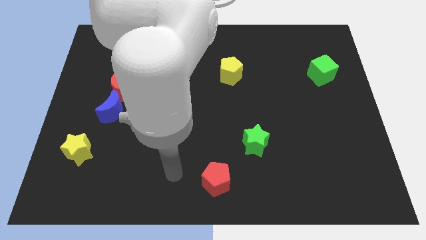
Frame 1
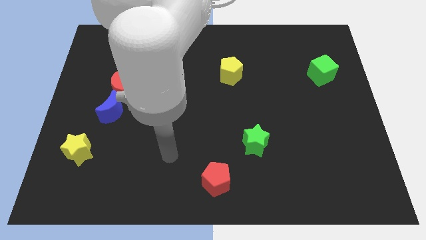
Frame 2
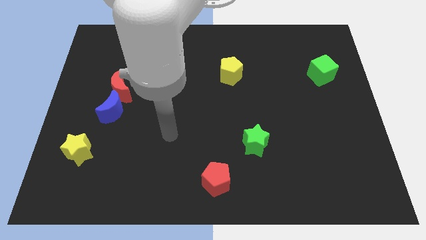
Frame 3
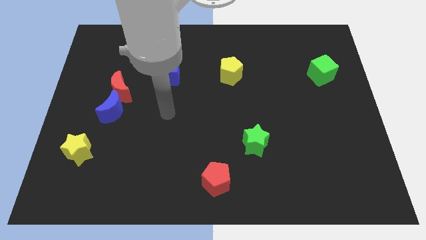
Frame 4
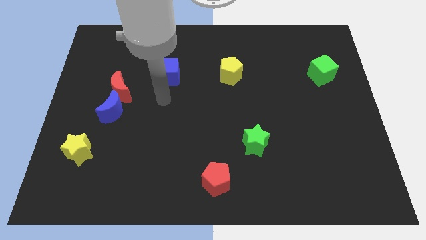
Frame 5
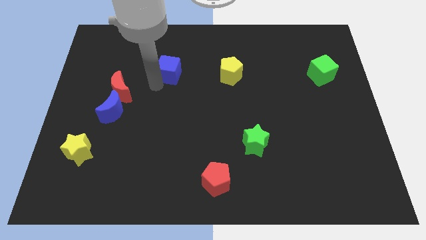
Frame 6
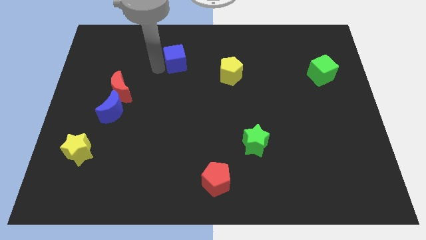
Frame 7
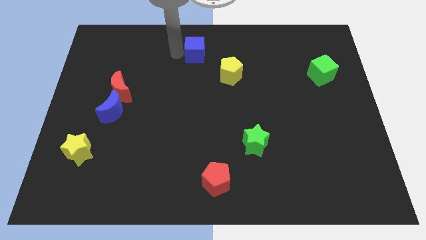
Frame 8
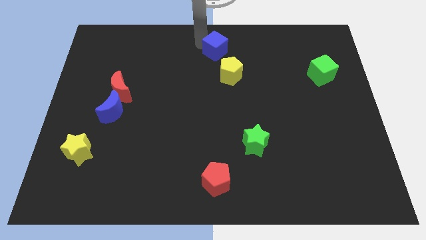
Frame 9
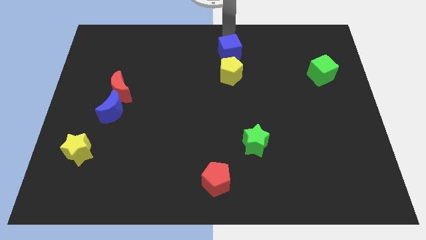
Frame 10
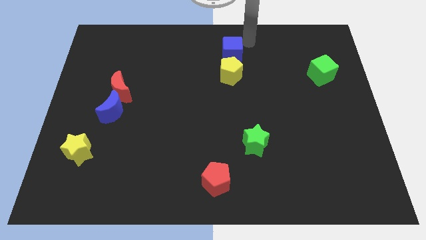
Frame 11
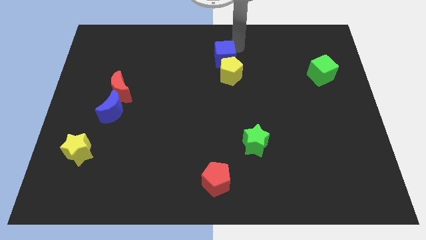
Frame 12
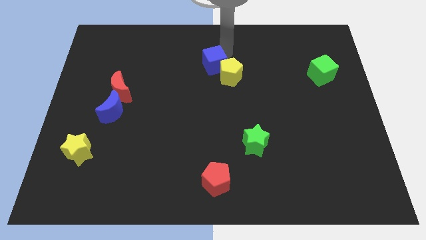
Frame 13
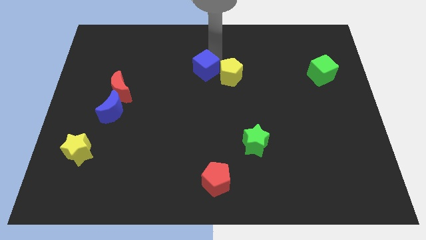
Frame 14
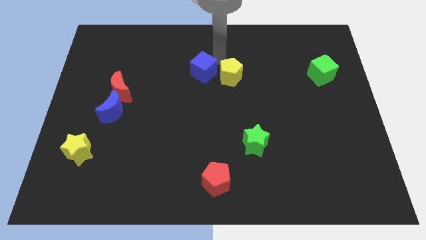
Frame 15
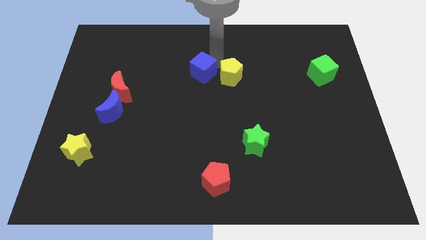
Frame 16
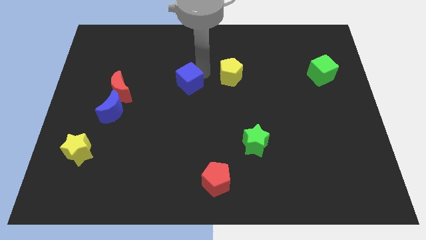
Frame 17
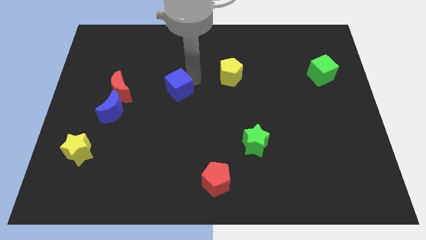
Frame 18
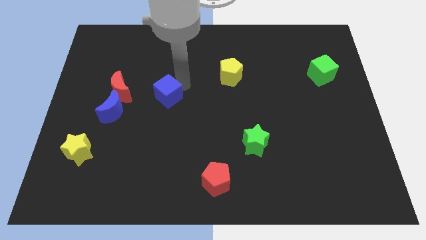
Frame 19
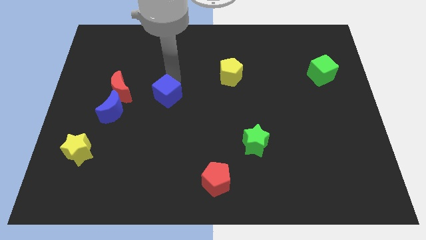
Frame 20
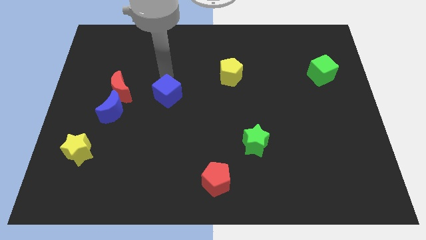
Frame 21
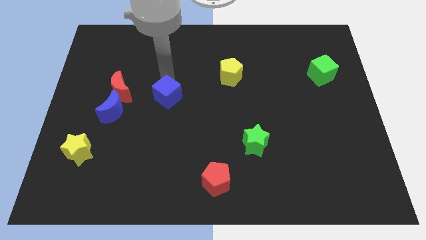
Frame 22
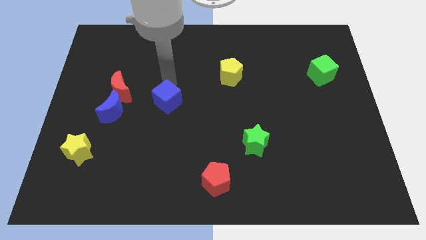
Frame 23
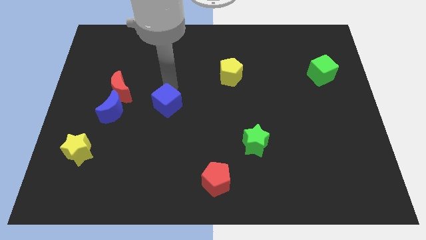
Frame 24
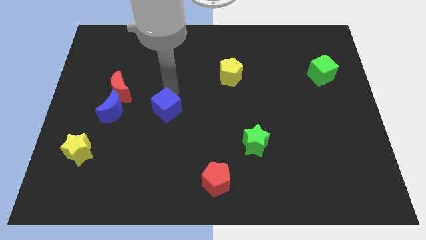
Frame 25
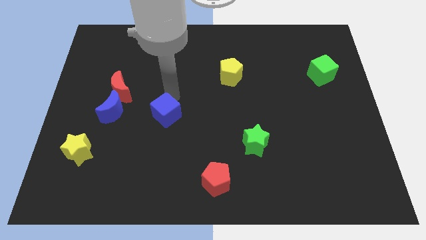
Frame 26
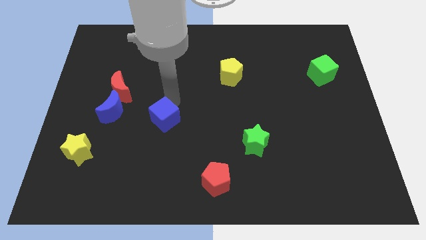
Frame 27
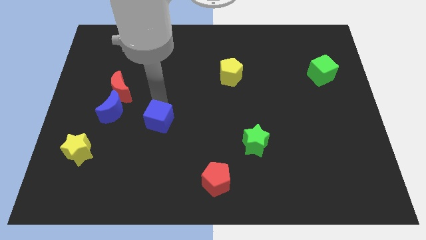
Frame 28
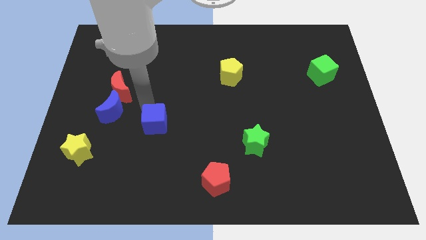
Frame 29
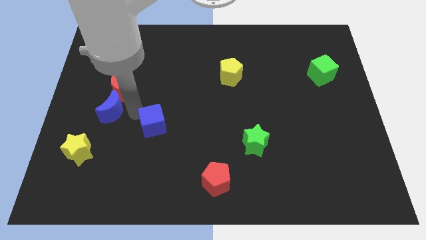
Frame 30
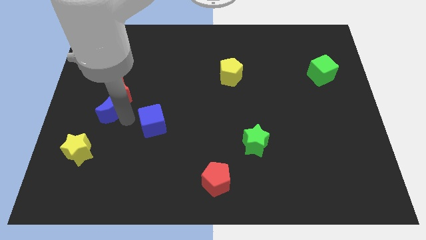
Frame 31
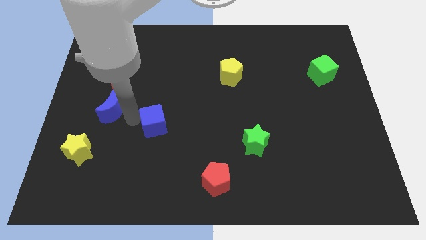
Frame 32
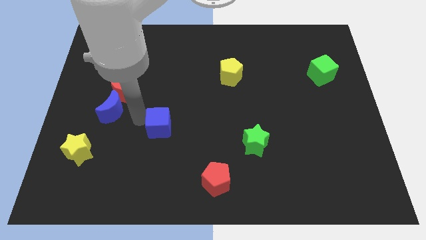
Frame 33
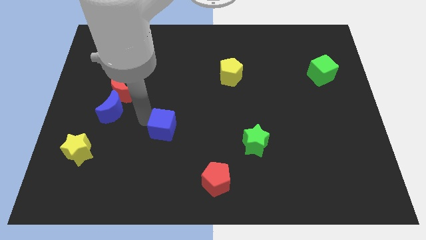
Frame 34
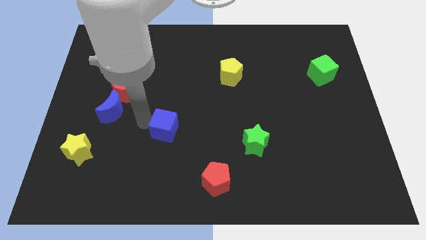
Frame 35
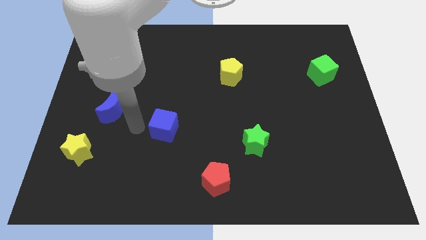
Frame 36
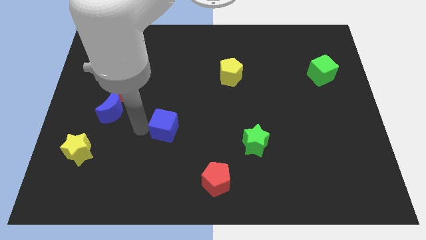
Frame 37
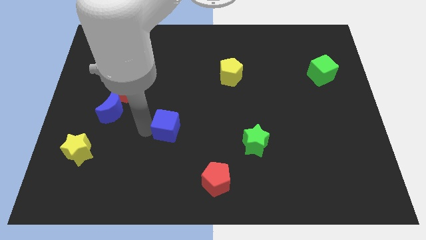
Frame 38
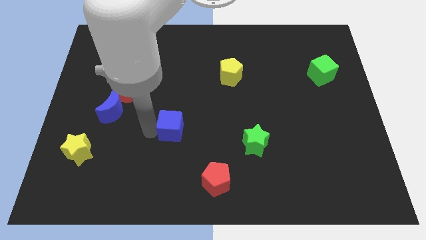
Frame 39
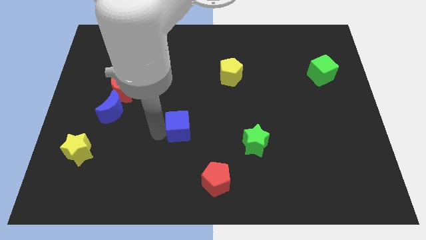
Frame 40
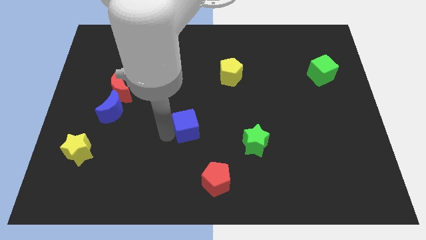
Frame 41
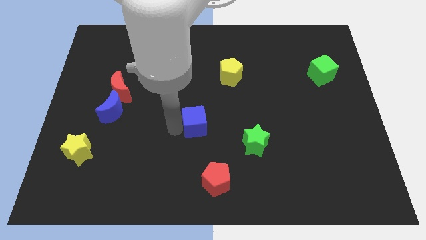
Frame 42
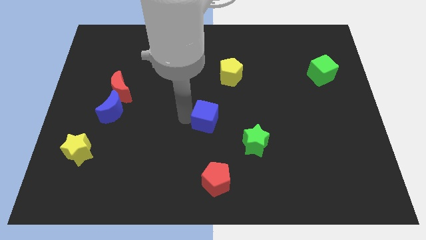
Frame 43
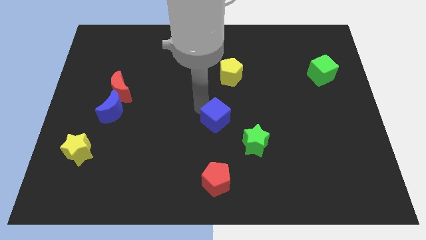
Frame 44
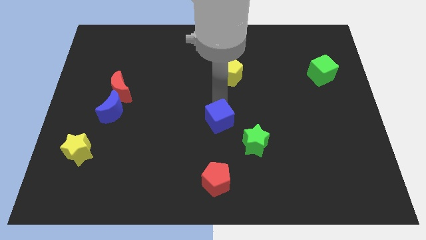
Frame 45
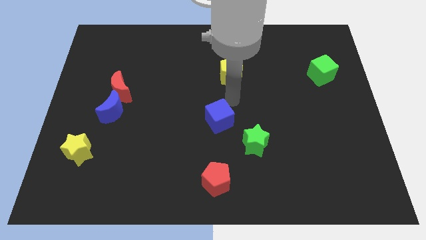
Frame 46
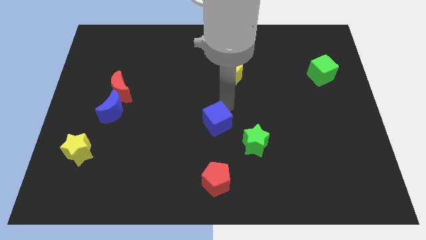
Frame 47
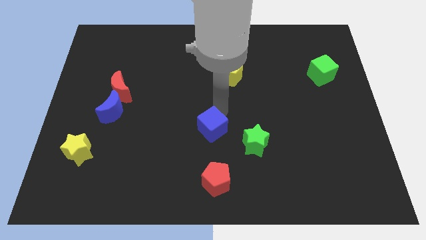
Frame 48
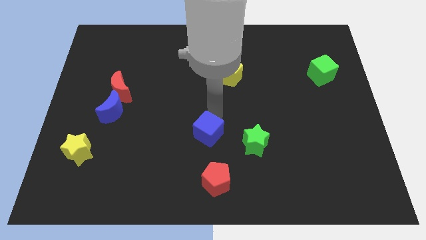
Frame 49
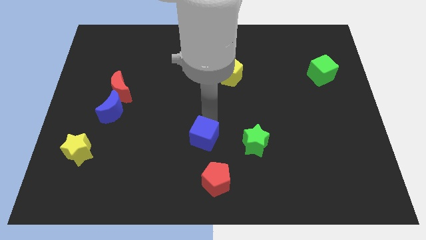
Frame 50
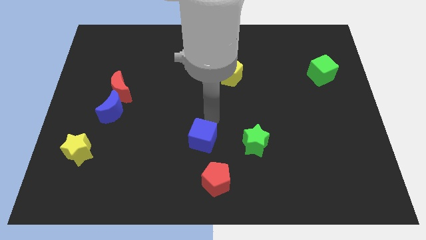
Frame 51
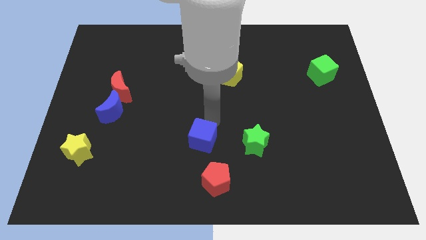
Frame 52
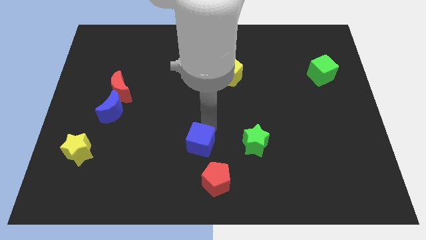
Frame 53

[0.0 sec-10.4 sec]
slide the blue cube diagonally up and to the left of the red pentagon

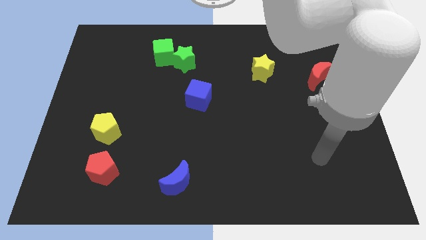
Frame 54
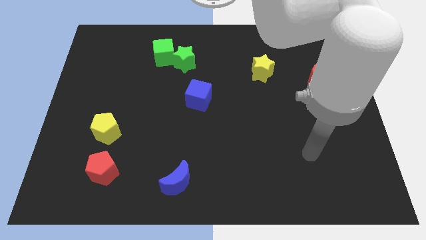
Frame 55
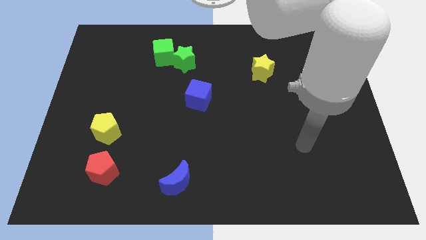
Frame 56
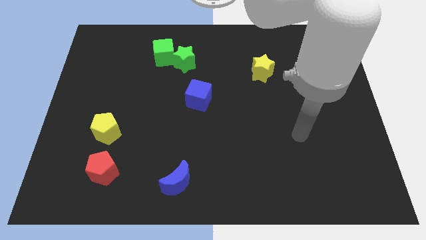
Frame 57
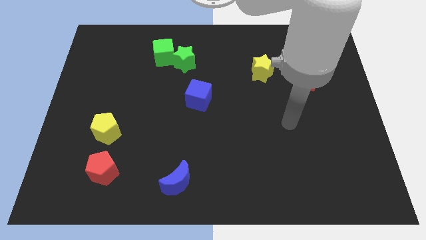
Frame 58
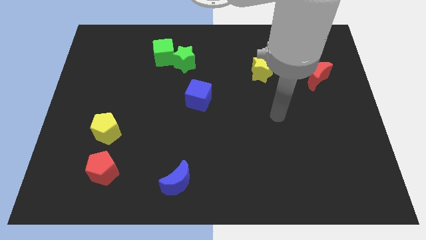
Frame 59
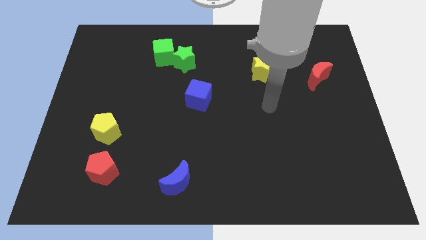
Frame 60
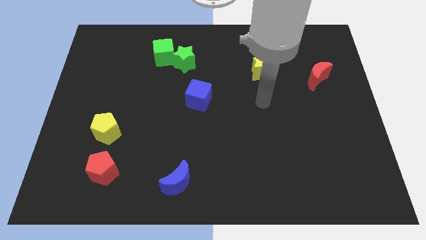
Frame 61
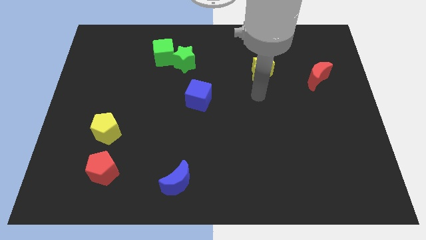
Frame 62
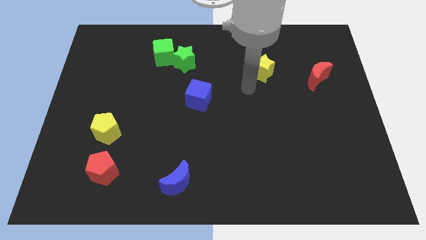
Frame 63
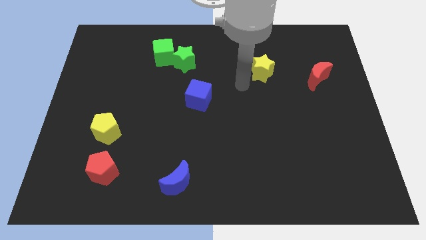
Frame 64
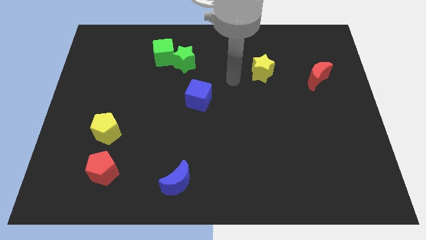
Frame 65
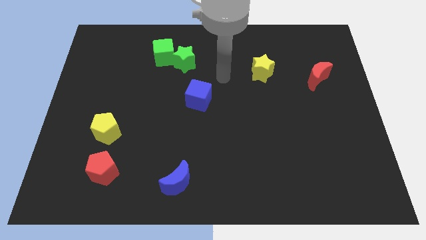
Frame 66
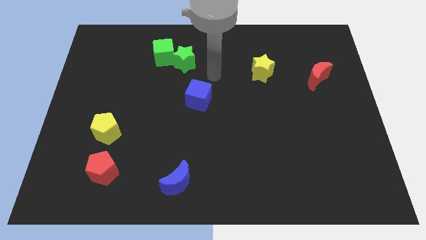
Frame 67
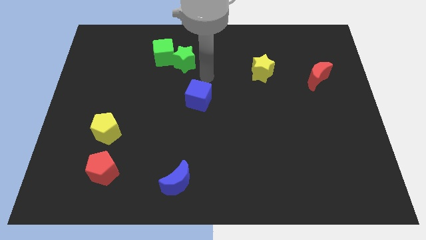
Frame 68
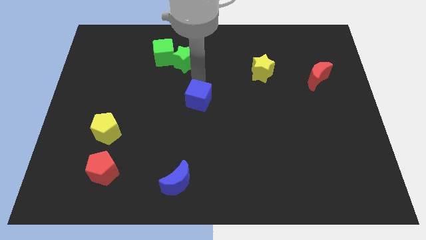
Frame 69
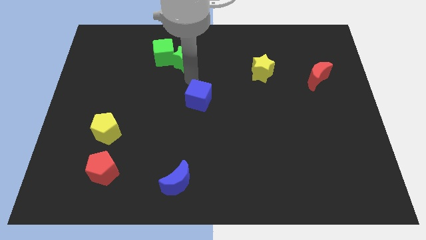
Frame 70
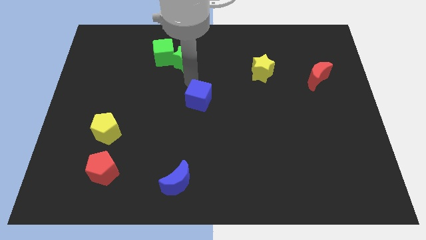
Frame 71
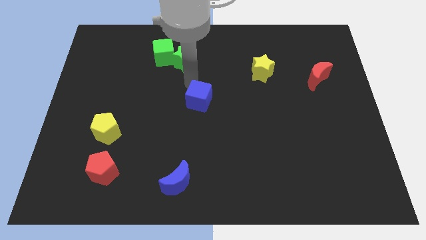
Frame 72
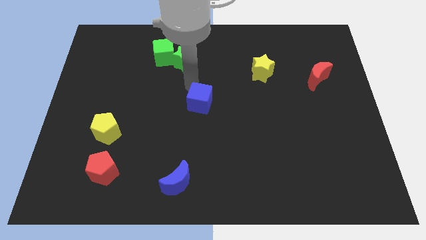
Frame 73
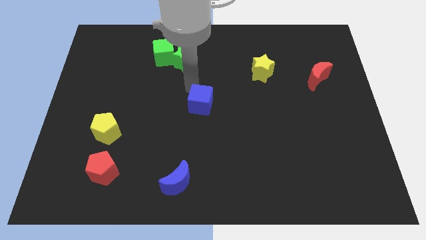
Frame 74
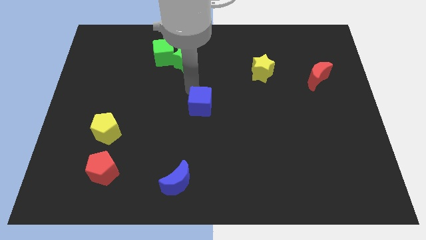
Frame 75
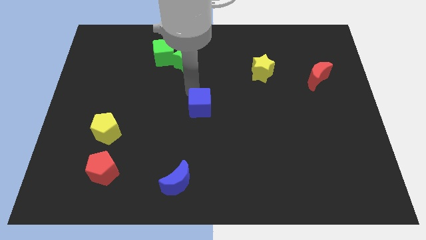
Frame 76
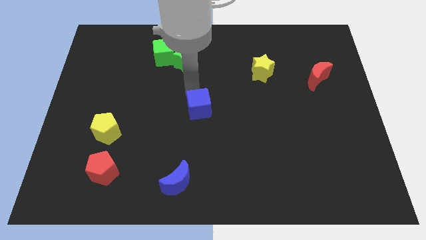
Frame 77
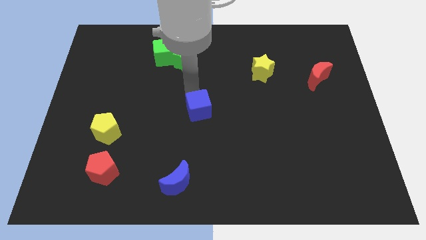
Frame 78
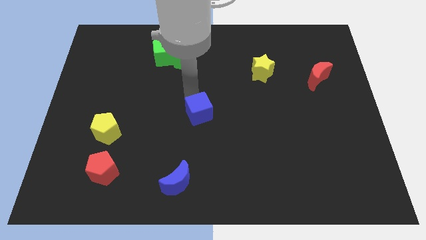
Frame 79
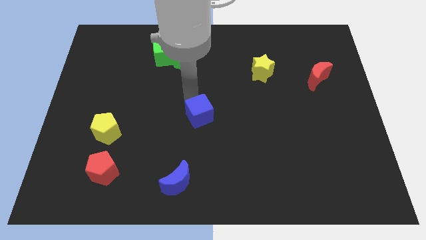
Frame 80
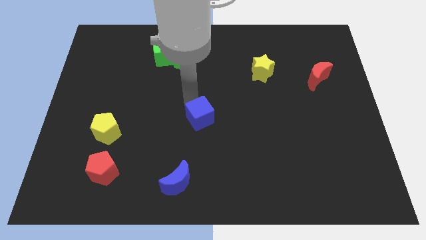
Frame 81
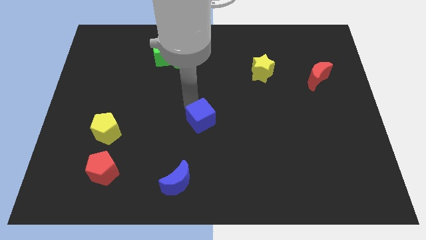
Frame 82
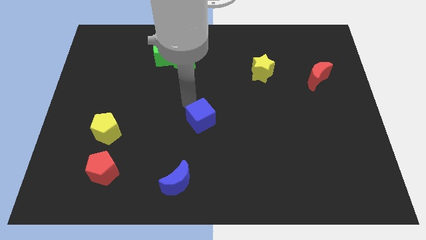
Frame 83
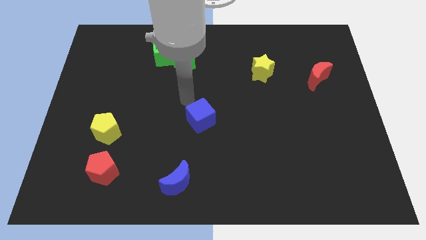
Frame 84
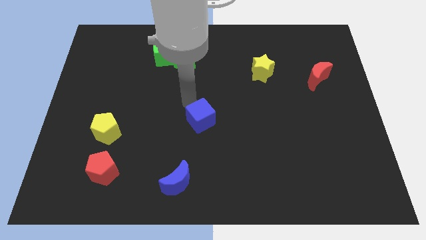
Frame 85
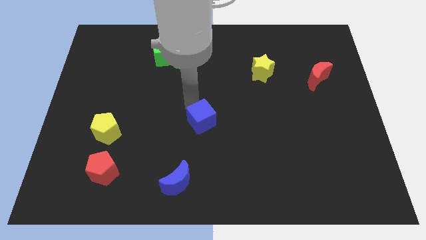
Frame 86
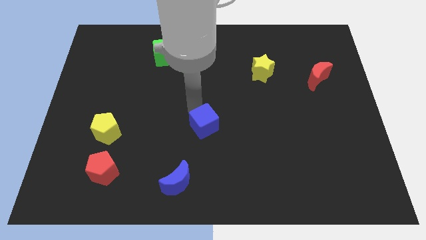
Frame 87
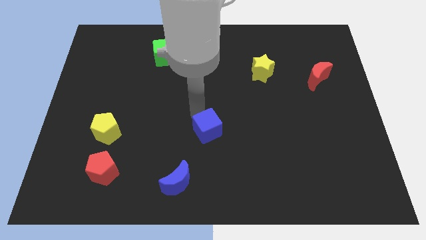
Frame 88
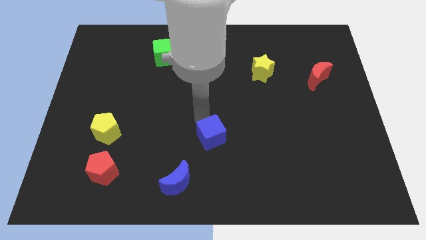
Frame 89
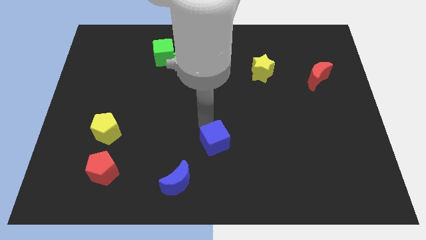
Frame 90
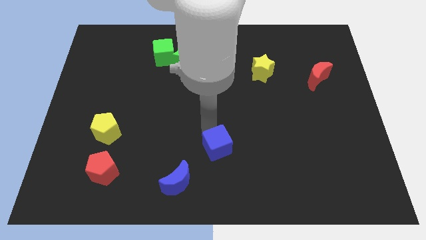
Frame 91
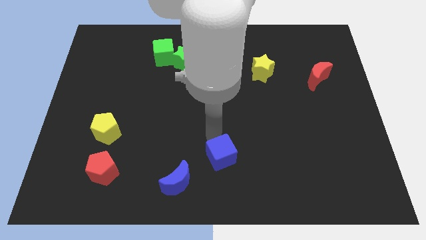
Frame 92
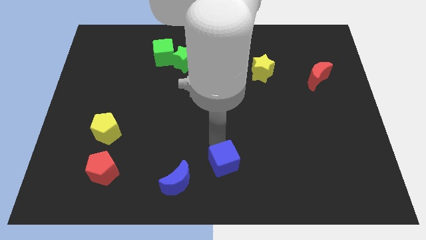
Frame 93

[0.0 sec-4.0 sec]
slide the blue cube to the right of the blue moon
